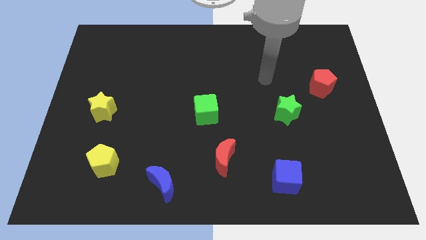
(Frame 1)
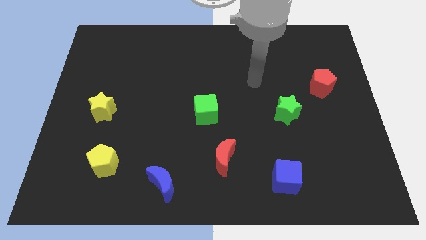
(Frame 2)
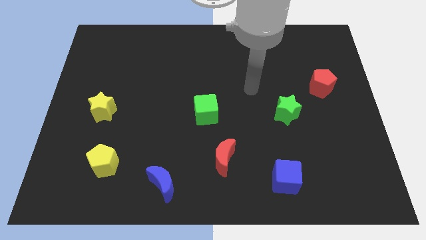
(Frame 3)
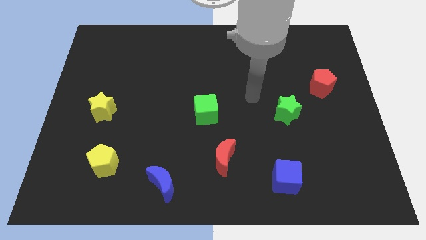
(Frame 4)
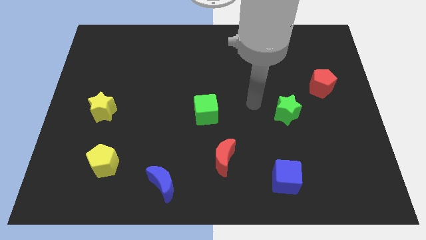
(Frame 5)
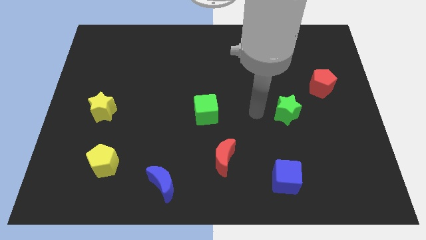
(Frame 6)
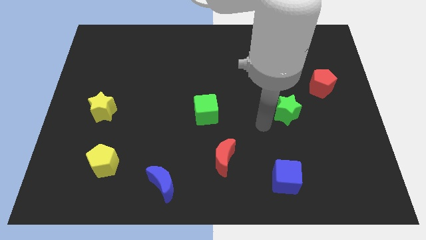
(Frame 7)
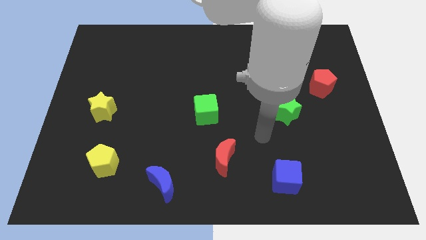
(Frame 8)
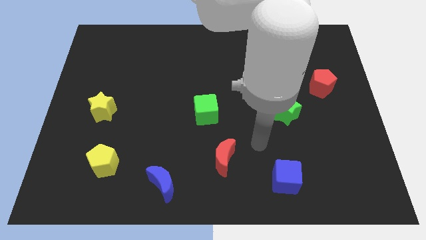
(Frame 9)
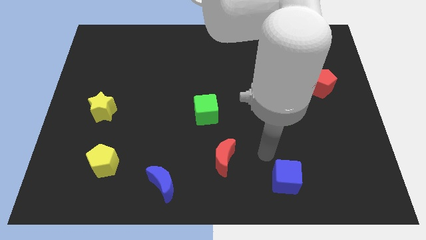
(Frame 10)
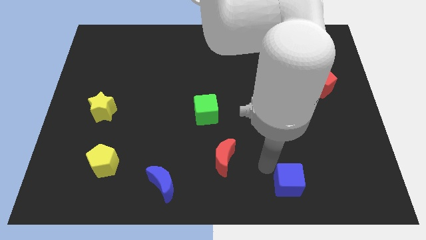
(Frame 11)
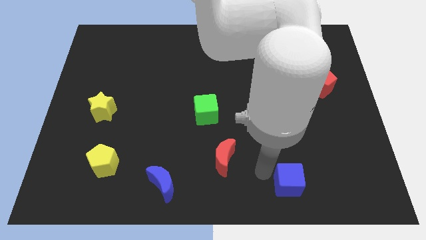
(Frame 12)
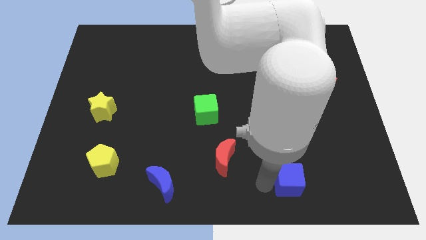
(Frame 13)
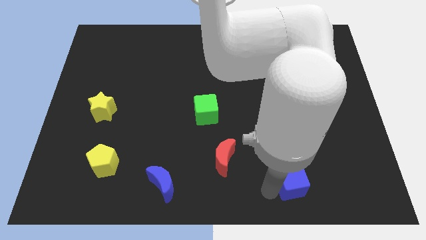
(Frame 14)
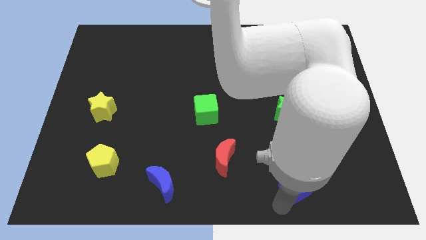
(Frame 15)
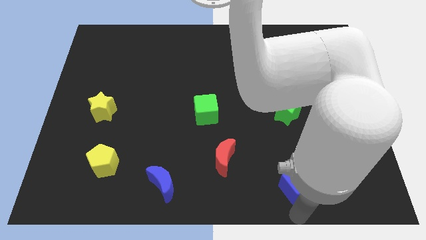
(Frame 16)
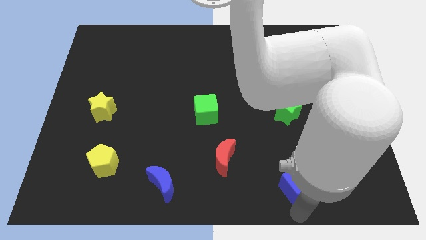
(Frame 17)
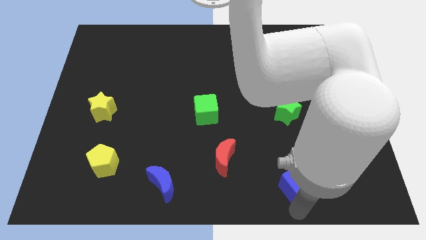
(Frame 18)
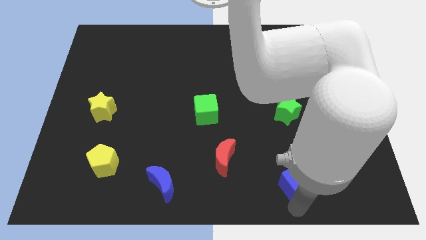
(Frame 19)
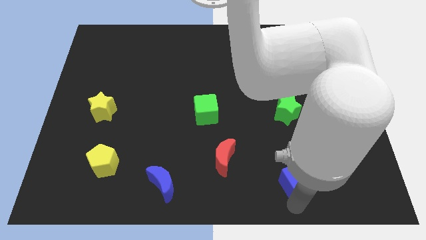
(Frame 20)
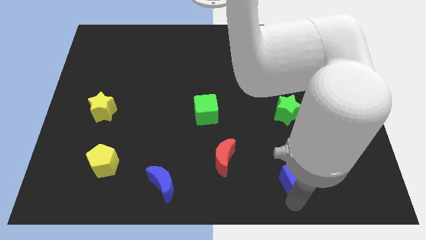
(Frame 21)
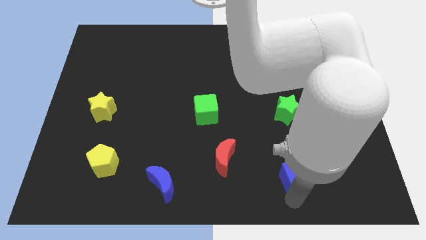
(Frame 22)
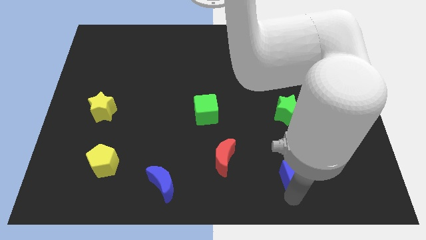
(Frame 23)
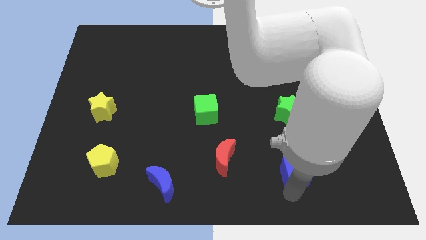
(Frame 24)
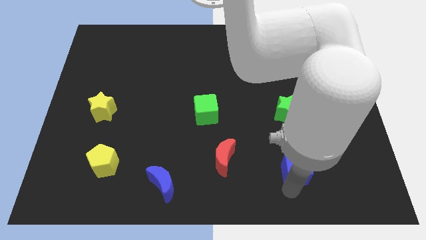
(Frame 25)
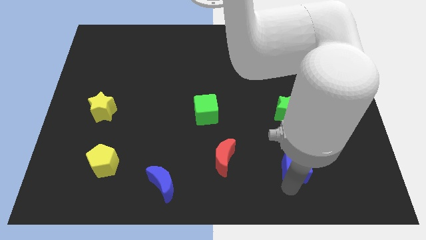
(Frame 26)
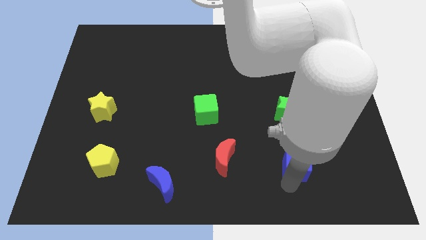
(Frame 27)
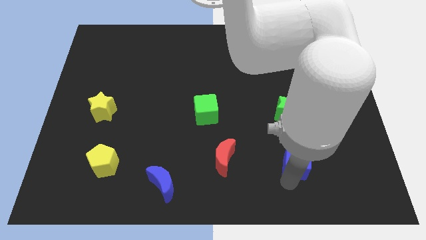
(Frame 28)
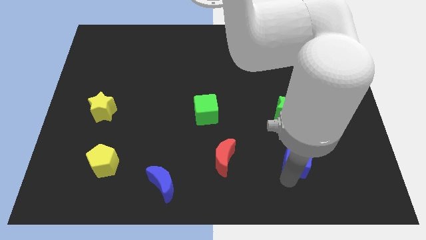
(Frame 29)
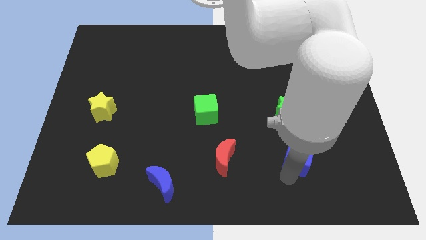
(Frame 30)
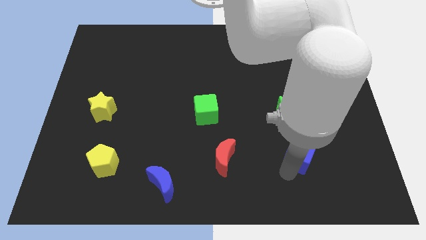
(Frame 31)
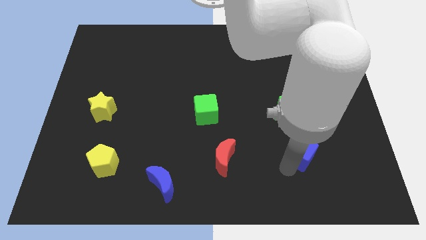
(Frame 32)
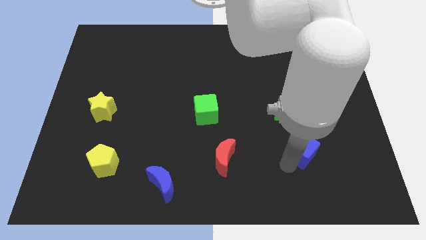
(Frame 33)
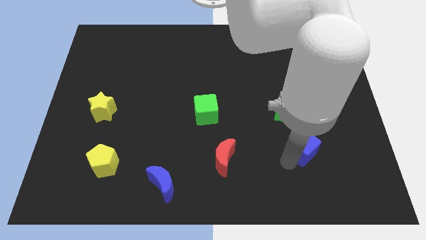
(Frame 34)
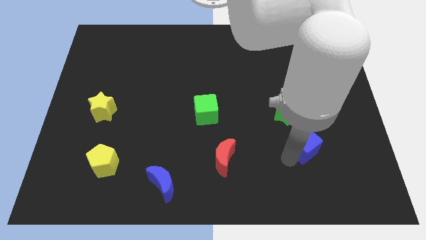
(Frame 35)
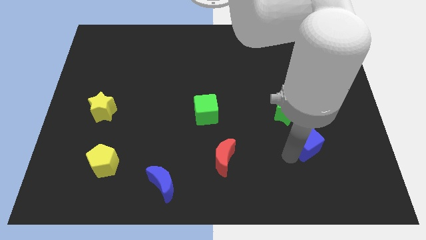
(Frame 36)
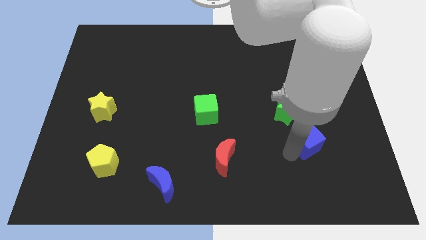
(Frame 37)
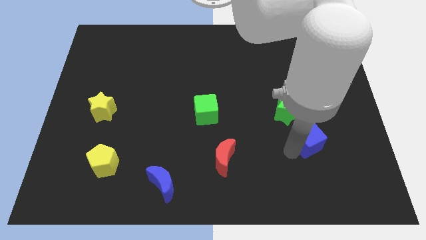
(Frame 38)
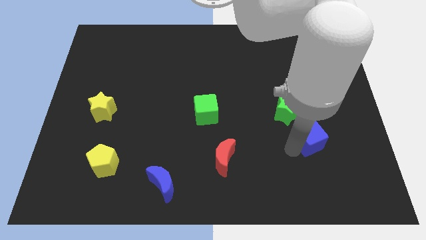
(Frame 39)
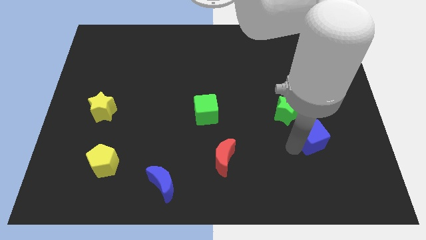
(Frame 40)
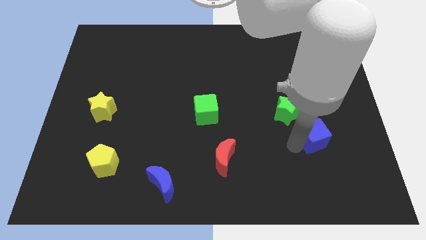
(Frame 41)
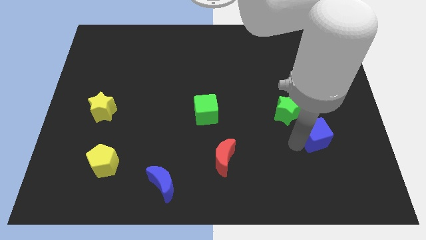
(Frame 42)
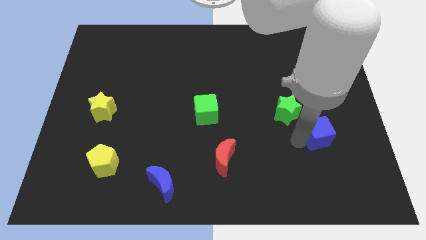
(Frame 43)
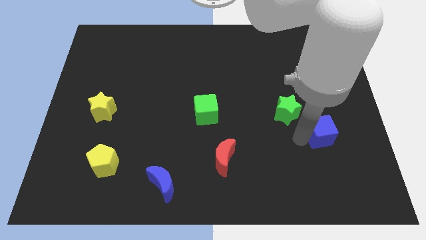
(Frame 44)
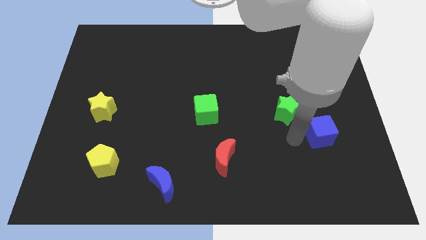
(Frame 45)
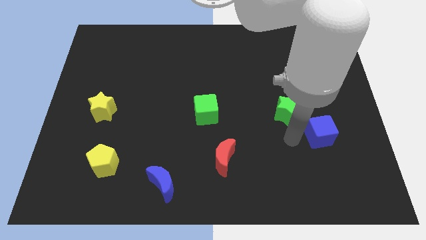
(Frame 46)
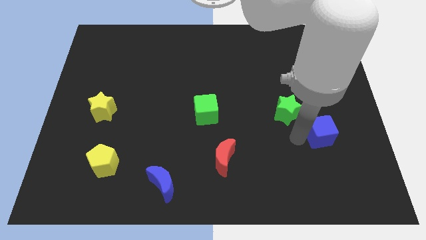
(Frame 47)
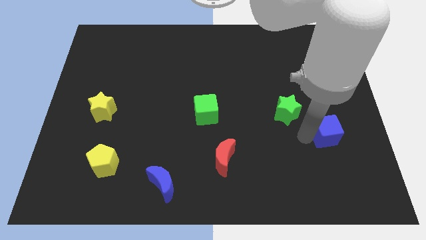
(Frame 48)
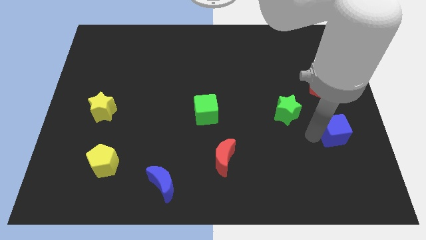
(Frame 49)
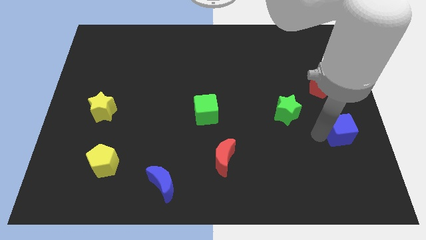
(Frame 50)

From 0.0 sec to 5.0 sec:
slide the blue cube to the center right

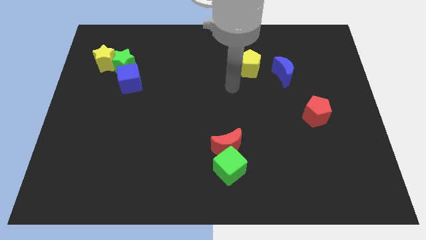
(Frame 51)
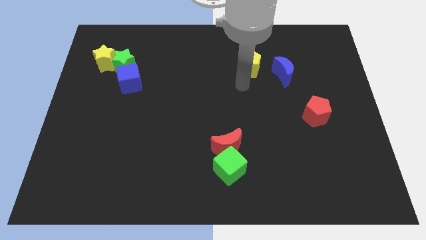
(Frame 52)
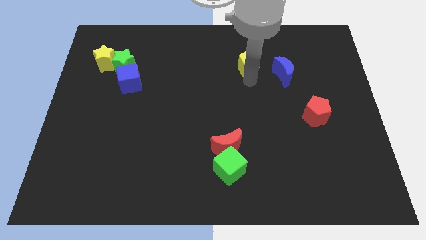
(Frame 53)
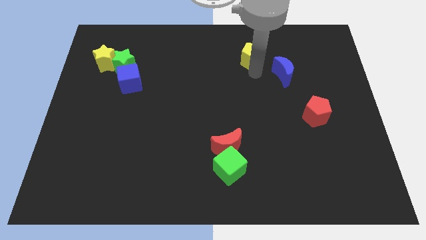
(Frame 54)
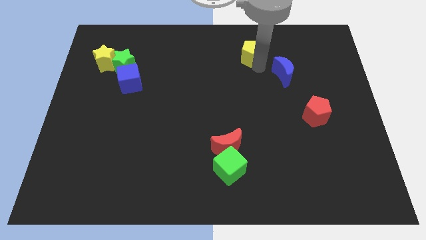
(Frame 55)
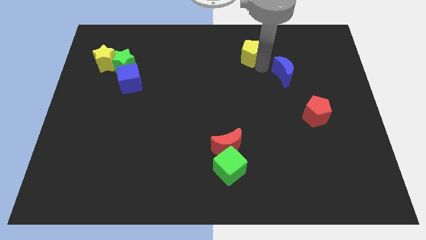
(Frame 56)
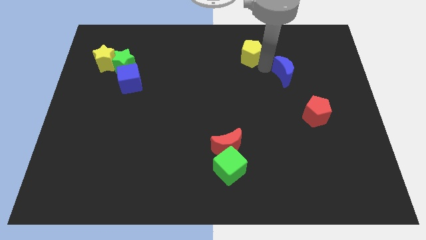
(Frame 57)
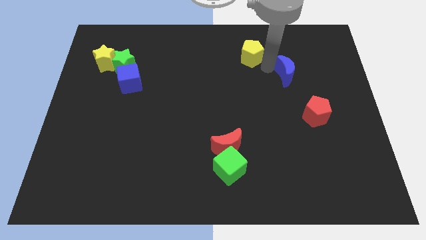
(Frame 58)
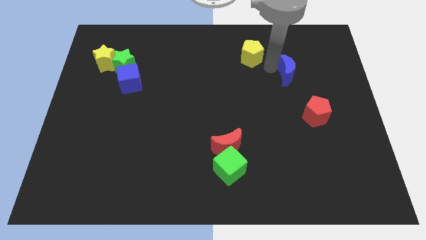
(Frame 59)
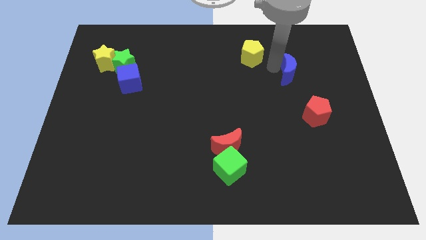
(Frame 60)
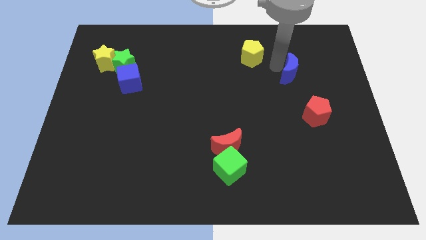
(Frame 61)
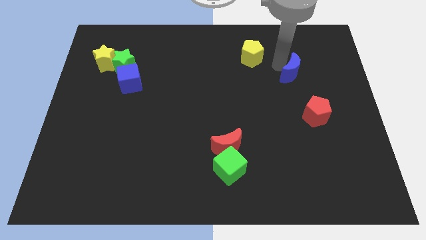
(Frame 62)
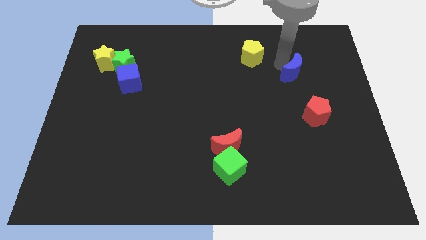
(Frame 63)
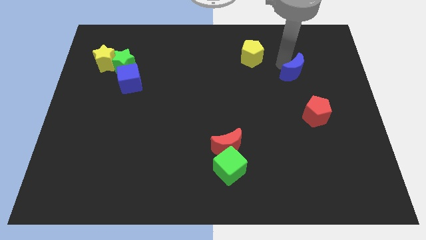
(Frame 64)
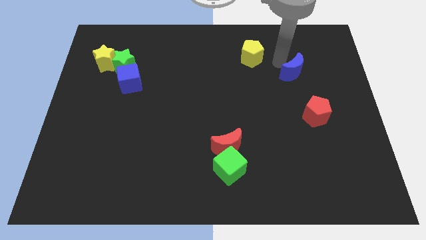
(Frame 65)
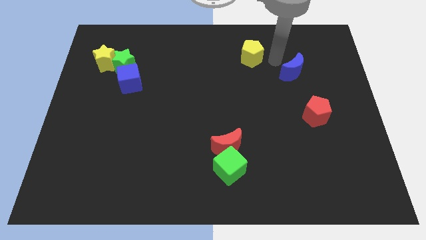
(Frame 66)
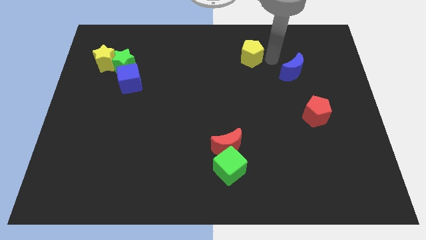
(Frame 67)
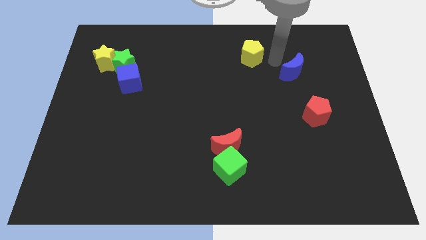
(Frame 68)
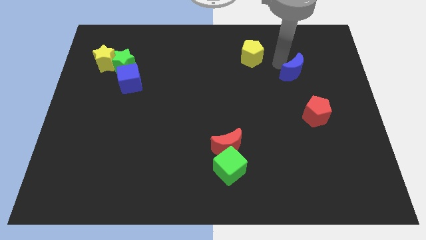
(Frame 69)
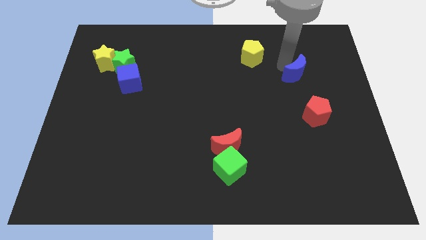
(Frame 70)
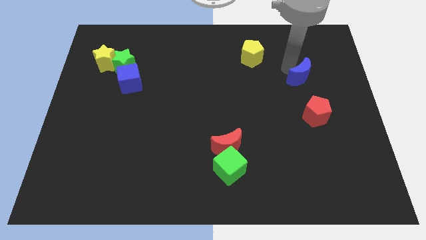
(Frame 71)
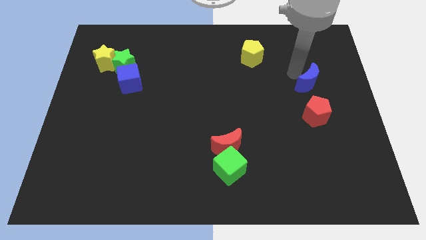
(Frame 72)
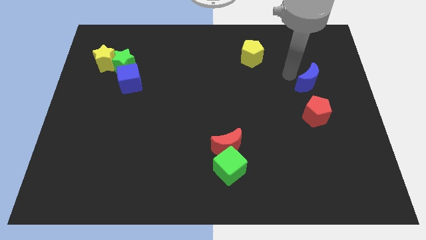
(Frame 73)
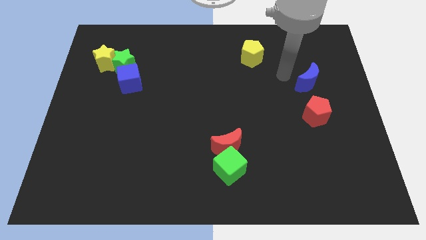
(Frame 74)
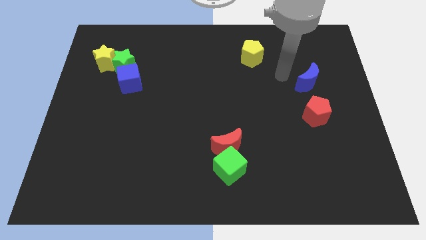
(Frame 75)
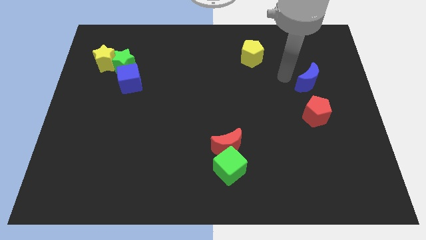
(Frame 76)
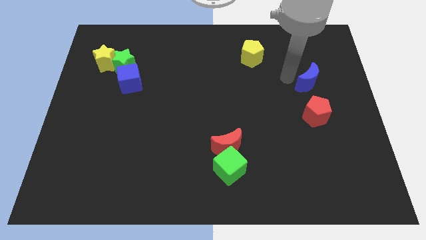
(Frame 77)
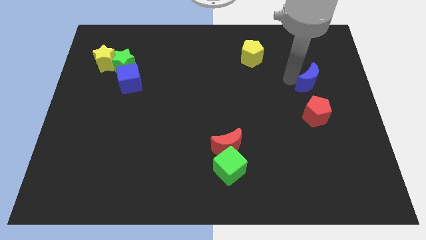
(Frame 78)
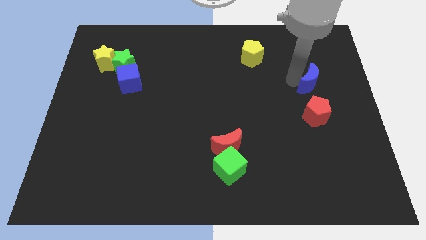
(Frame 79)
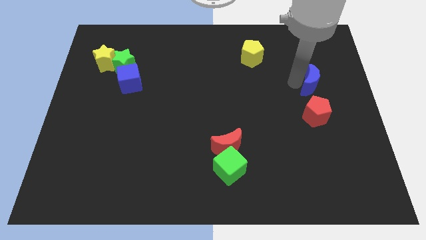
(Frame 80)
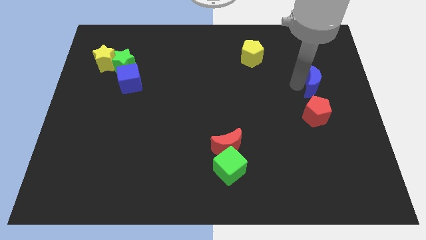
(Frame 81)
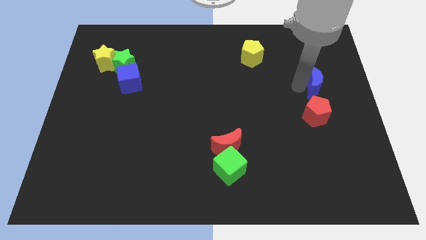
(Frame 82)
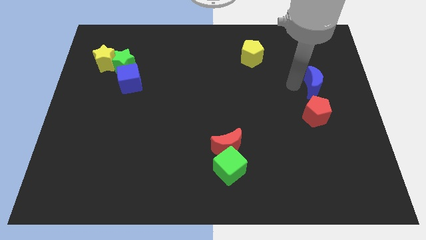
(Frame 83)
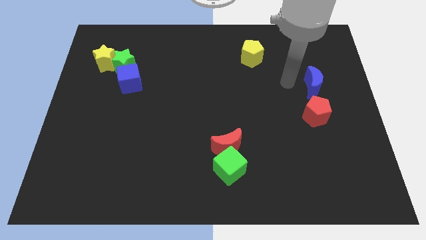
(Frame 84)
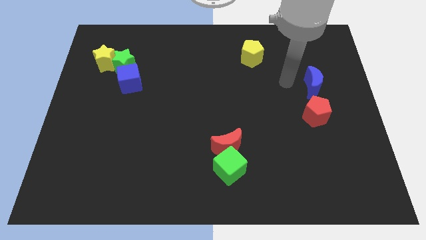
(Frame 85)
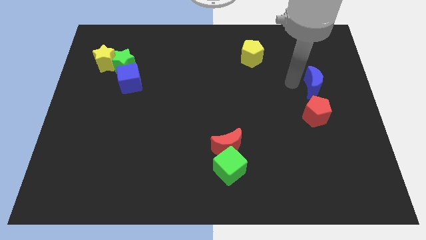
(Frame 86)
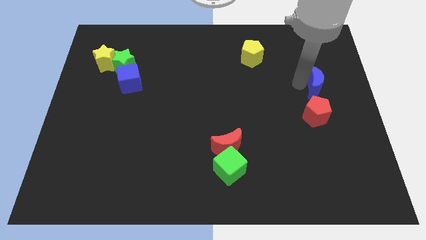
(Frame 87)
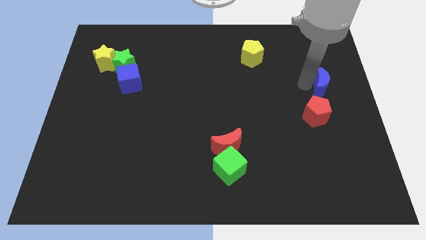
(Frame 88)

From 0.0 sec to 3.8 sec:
move the blue moon to the right side of the board
